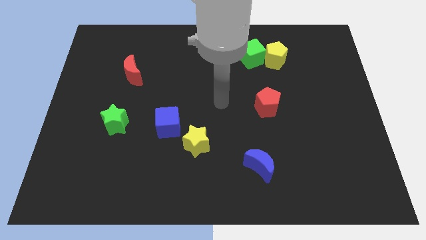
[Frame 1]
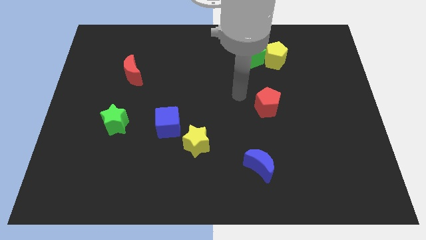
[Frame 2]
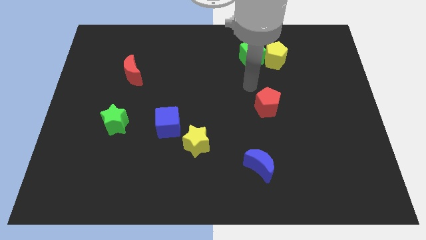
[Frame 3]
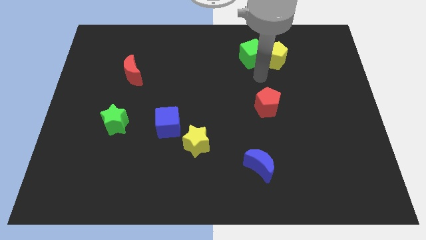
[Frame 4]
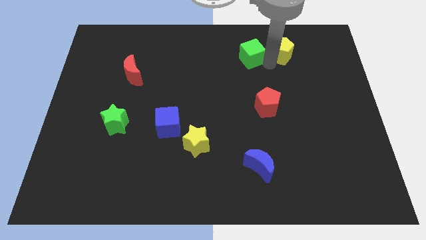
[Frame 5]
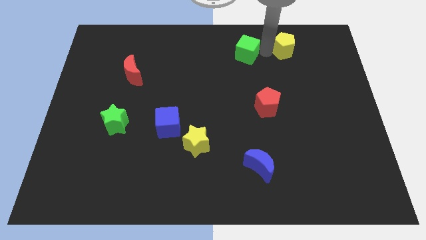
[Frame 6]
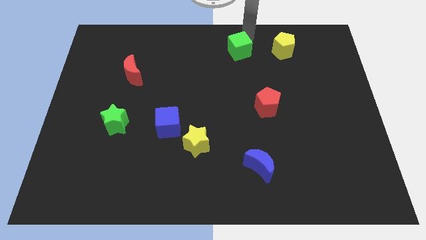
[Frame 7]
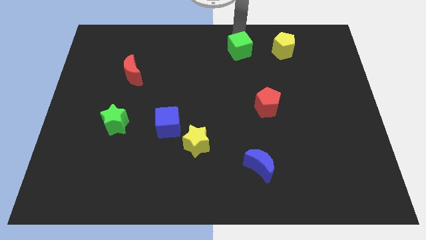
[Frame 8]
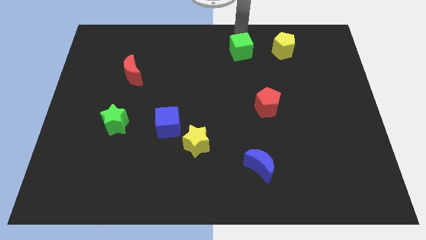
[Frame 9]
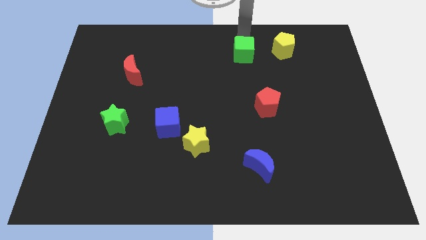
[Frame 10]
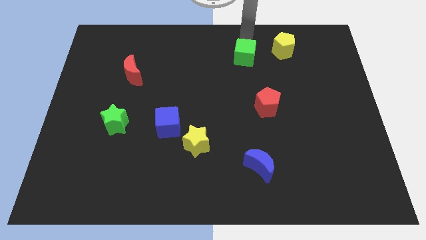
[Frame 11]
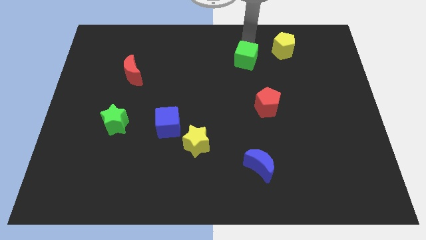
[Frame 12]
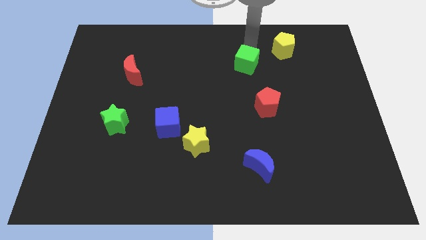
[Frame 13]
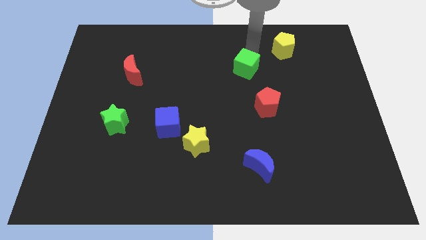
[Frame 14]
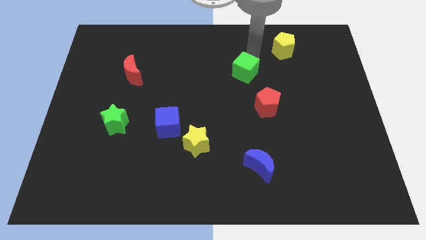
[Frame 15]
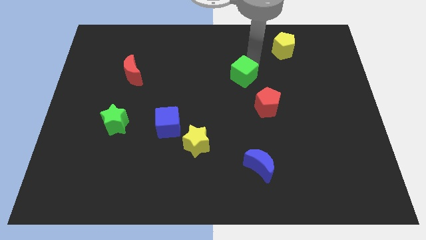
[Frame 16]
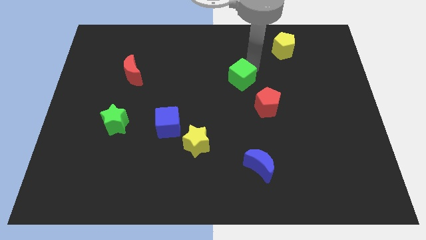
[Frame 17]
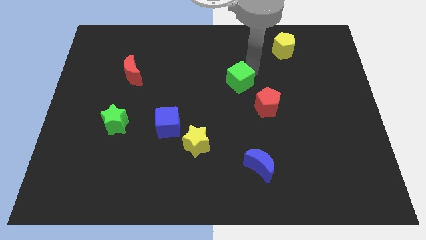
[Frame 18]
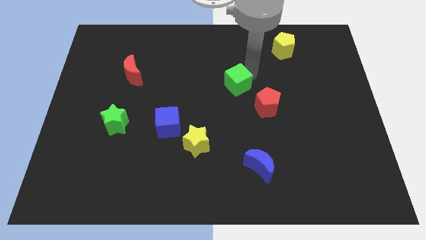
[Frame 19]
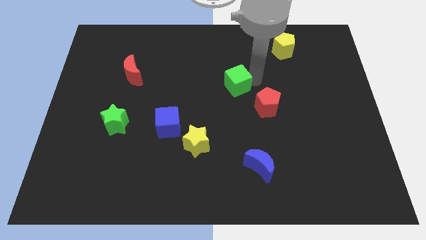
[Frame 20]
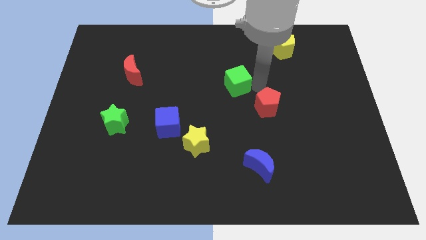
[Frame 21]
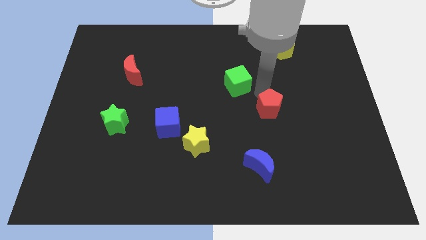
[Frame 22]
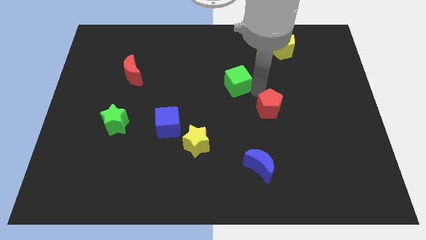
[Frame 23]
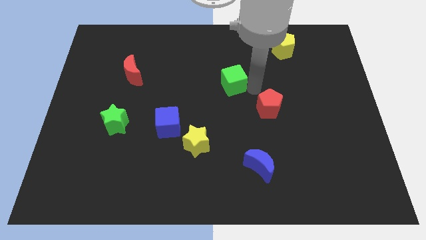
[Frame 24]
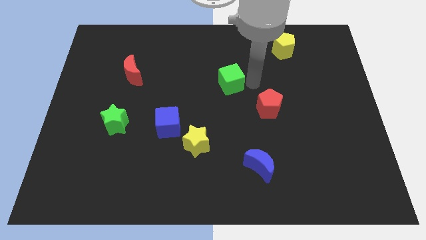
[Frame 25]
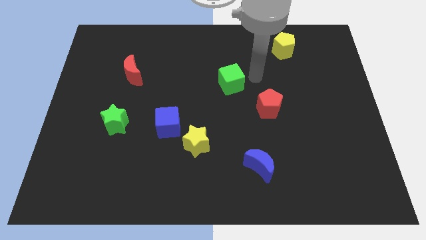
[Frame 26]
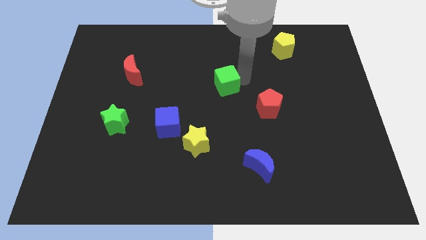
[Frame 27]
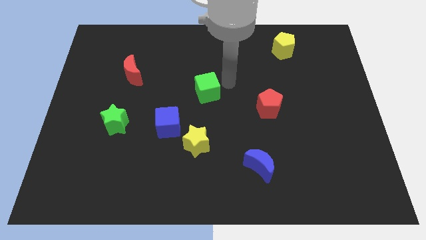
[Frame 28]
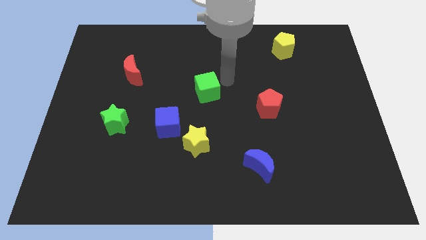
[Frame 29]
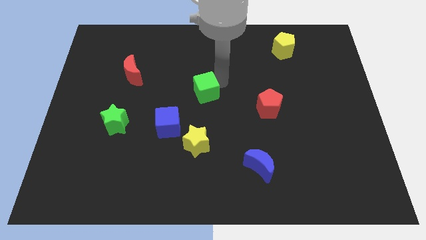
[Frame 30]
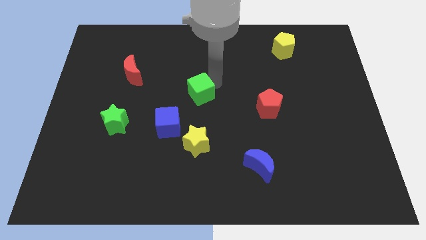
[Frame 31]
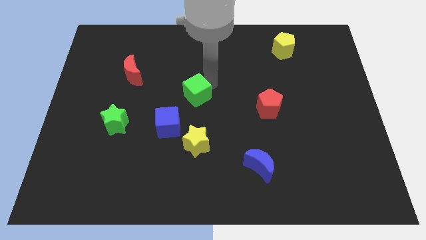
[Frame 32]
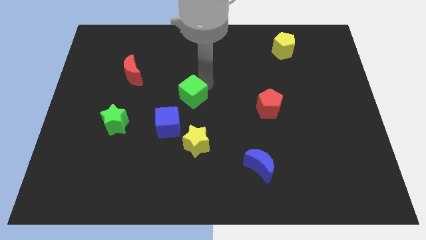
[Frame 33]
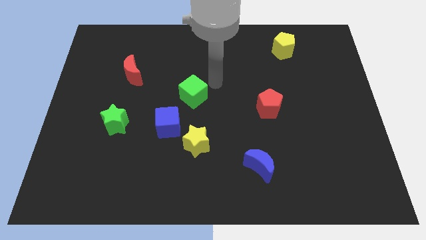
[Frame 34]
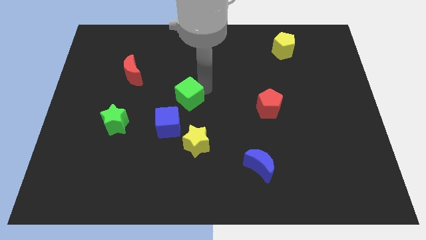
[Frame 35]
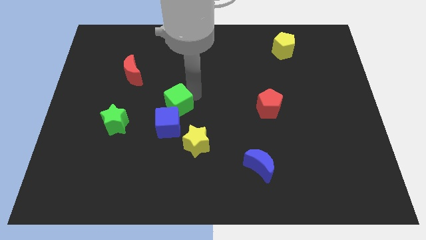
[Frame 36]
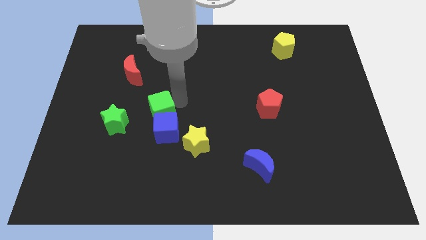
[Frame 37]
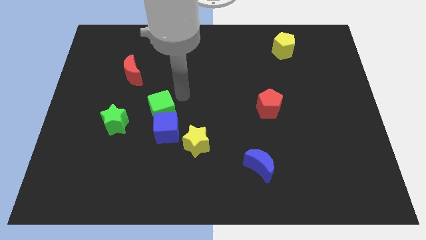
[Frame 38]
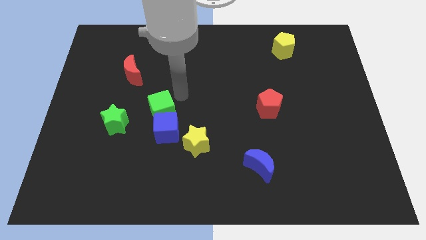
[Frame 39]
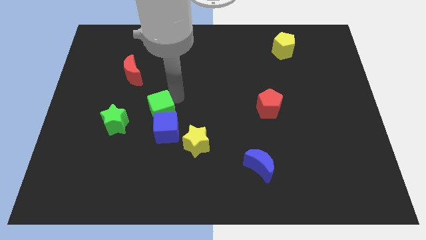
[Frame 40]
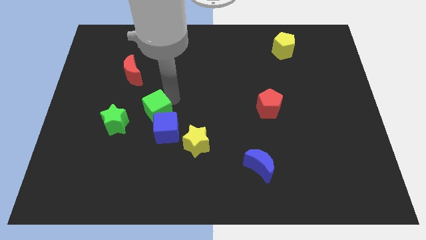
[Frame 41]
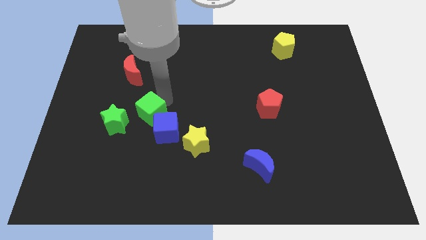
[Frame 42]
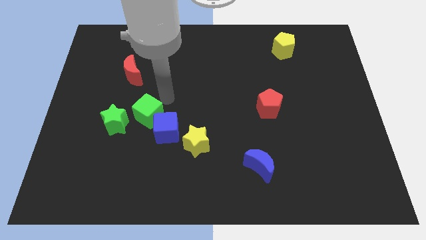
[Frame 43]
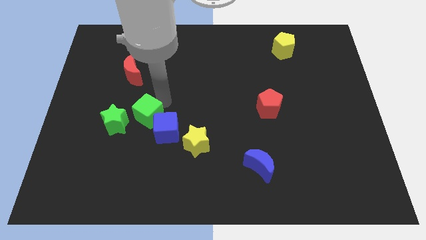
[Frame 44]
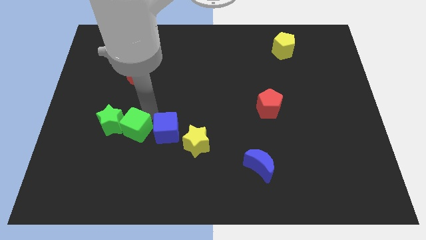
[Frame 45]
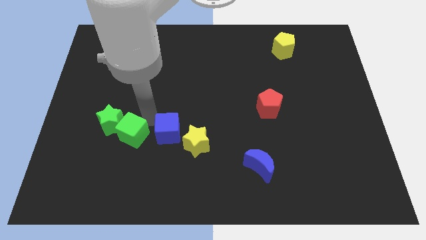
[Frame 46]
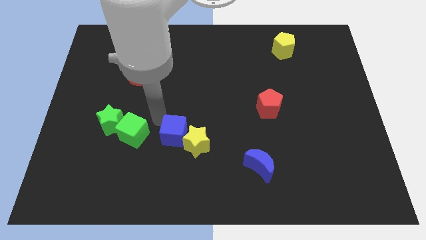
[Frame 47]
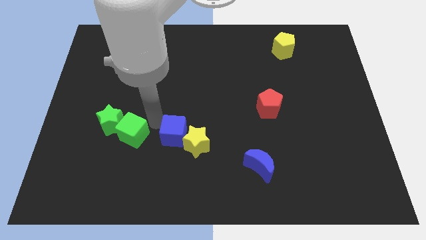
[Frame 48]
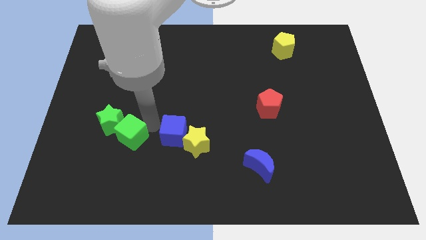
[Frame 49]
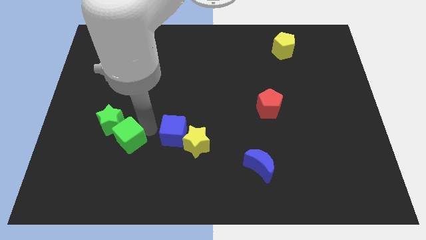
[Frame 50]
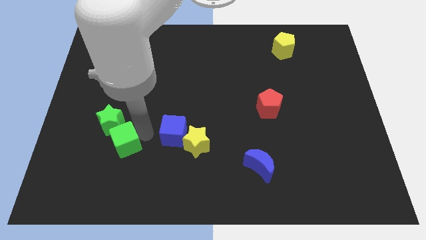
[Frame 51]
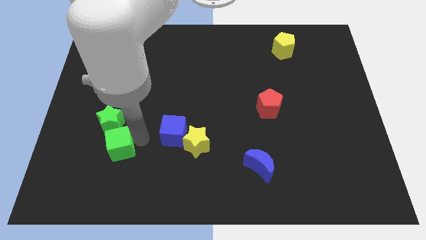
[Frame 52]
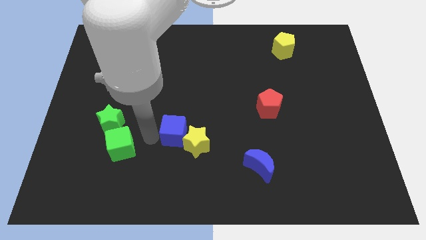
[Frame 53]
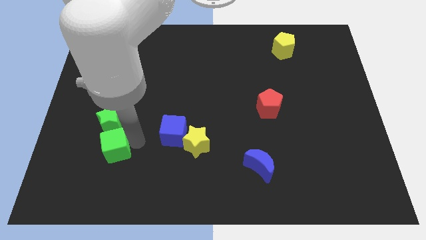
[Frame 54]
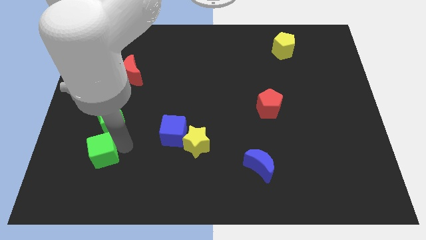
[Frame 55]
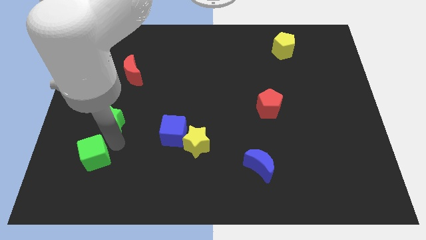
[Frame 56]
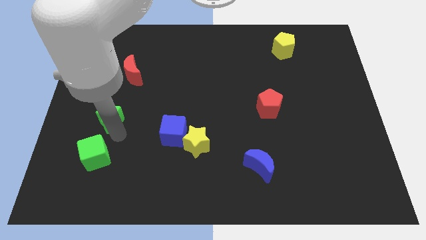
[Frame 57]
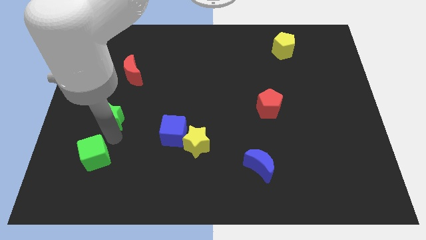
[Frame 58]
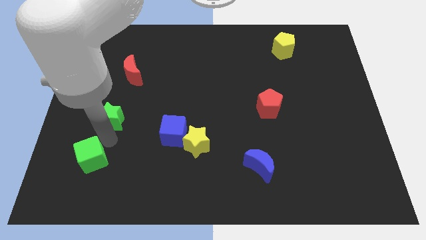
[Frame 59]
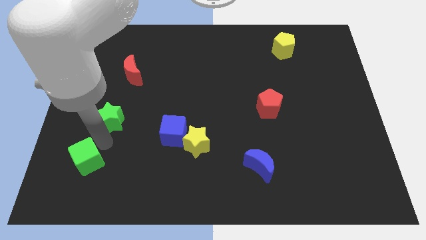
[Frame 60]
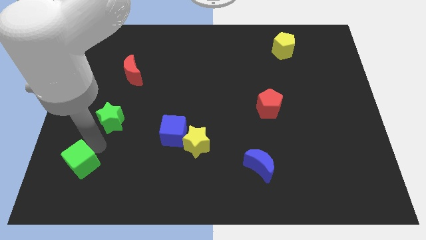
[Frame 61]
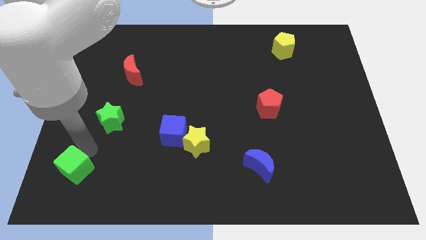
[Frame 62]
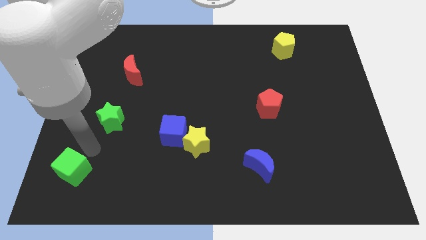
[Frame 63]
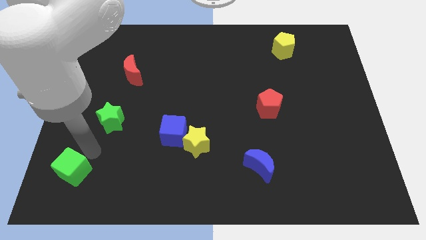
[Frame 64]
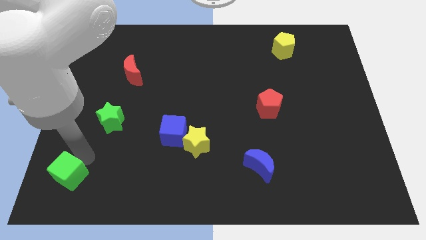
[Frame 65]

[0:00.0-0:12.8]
slide the green cube to the bottom left

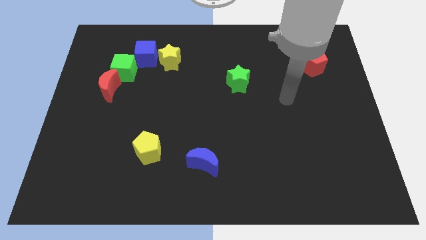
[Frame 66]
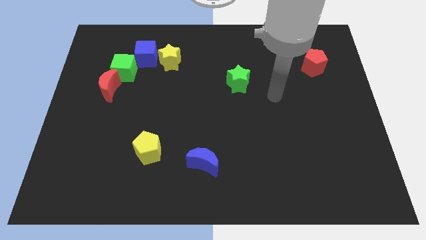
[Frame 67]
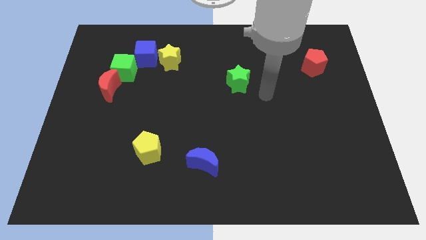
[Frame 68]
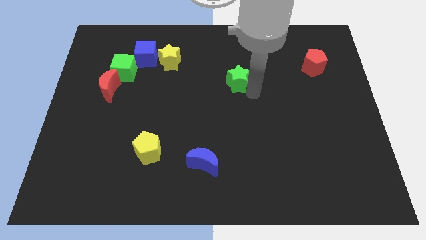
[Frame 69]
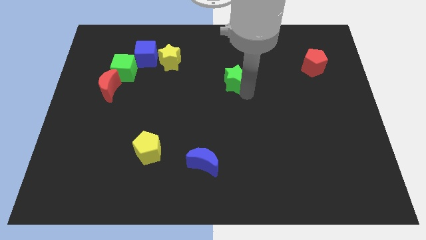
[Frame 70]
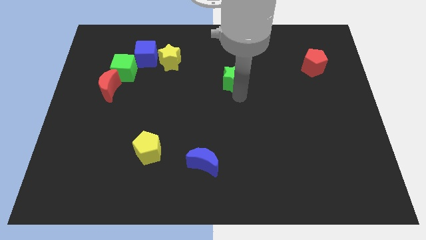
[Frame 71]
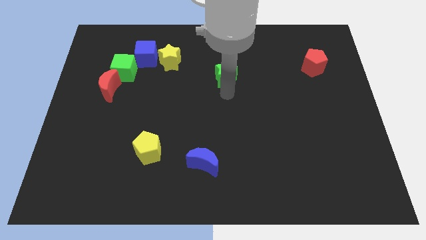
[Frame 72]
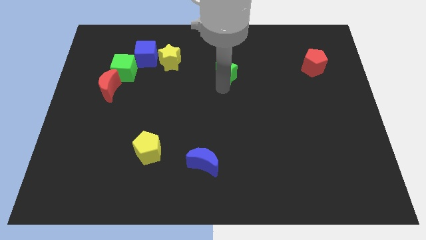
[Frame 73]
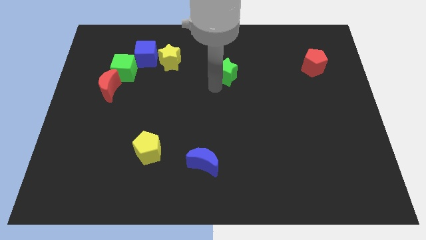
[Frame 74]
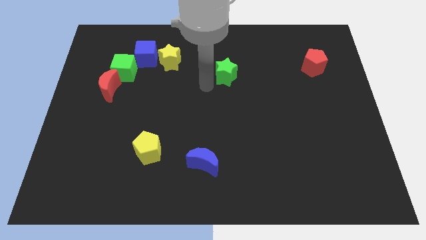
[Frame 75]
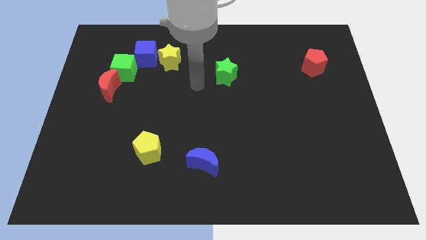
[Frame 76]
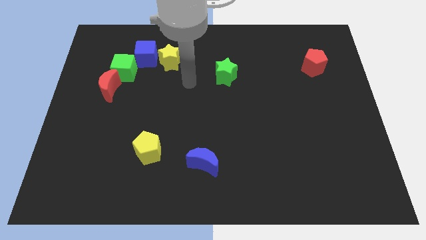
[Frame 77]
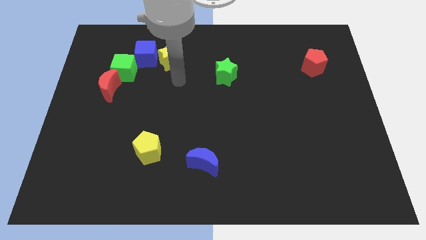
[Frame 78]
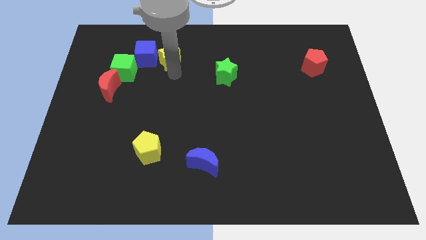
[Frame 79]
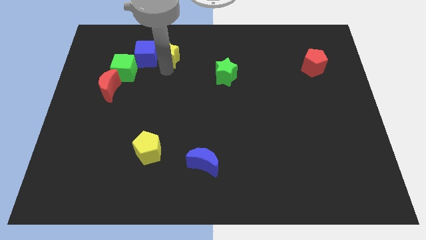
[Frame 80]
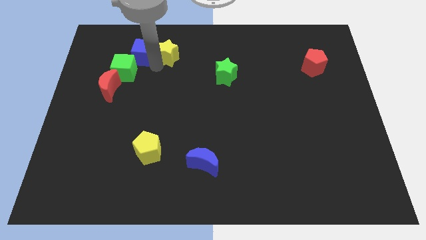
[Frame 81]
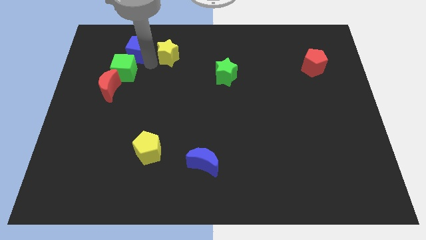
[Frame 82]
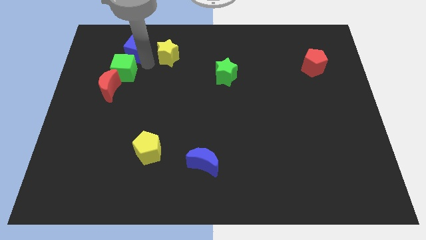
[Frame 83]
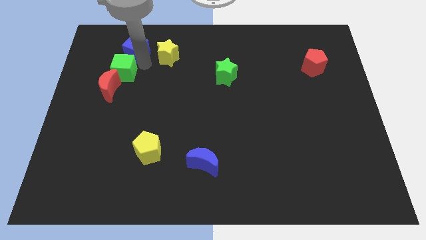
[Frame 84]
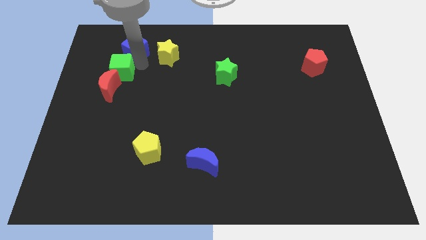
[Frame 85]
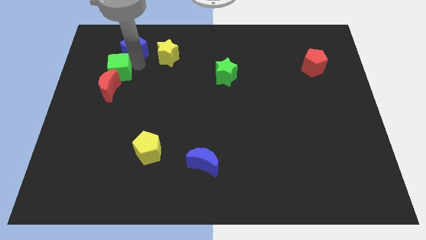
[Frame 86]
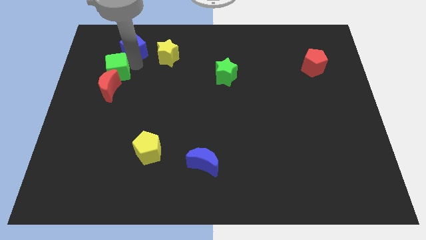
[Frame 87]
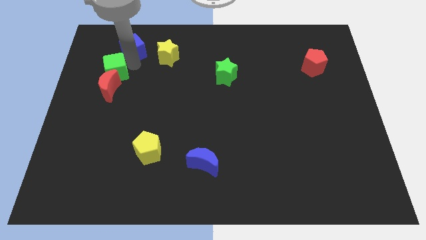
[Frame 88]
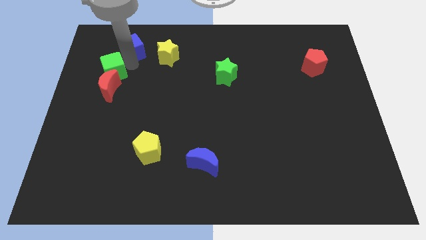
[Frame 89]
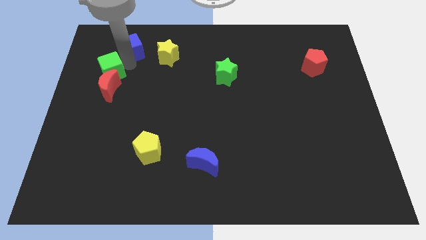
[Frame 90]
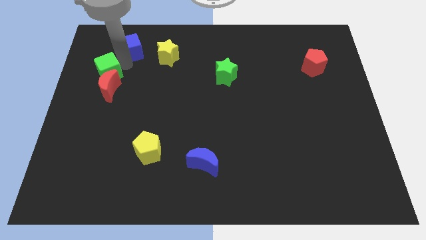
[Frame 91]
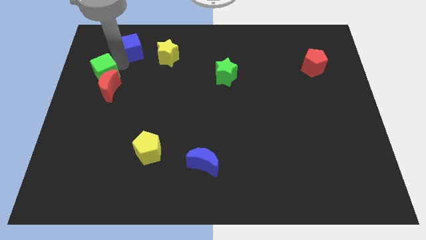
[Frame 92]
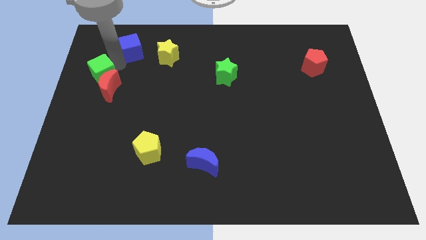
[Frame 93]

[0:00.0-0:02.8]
push the green cube to the left side of the board
